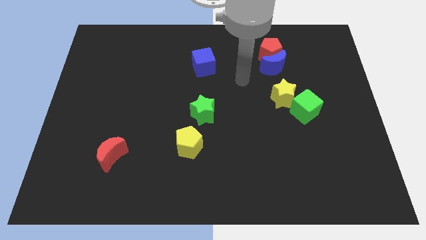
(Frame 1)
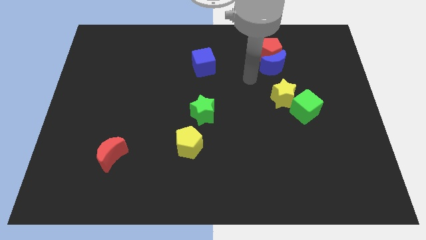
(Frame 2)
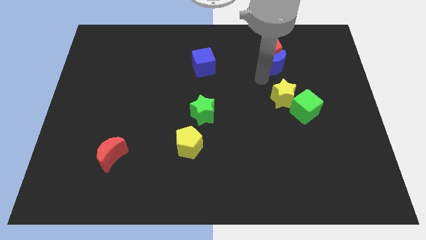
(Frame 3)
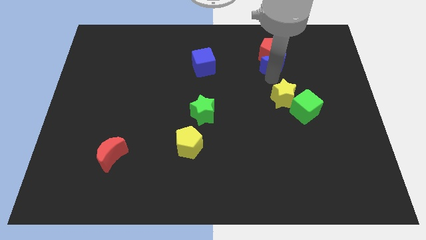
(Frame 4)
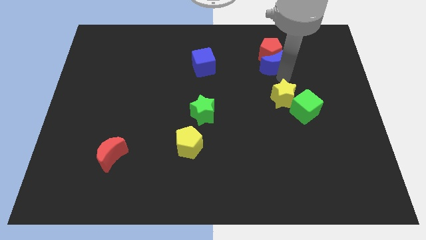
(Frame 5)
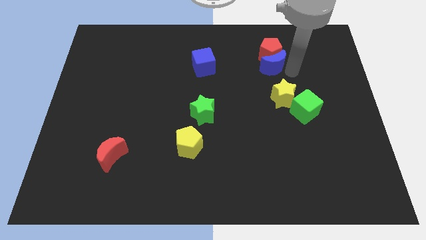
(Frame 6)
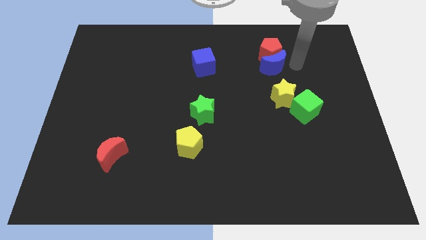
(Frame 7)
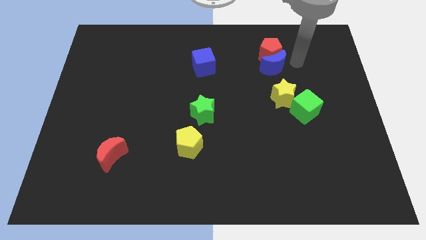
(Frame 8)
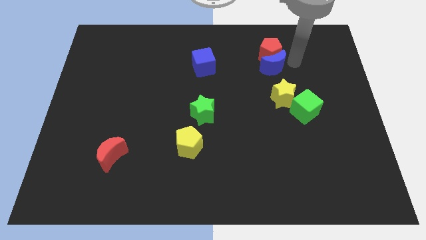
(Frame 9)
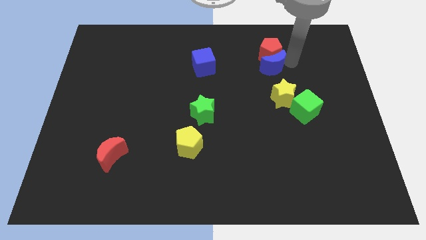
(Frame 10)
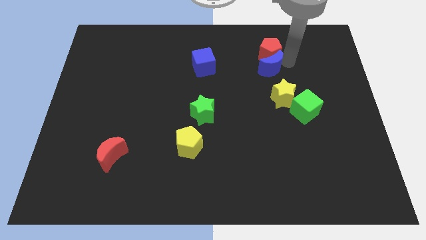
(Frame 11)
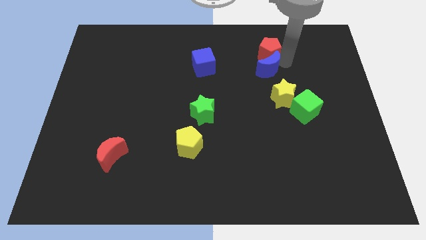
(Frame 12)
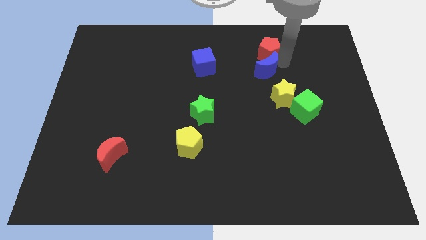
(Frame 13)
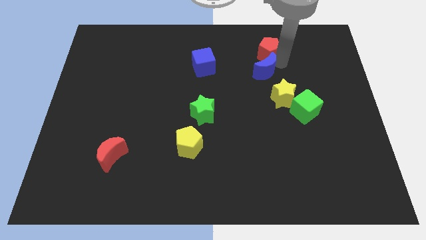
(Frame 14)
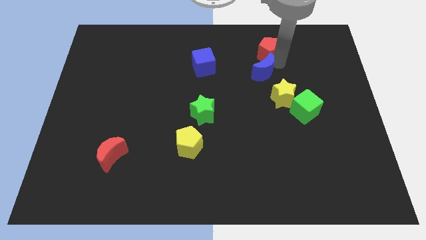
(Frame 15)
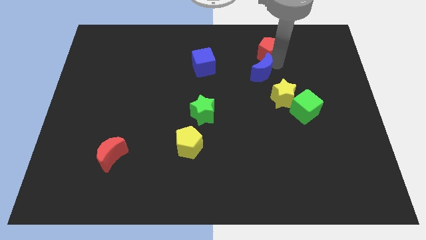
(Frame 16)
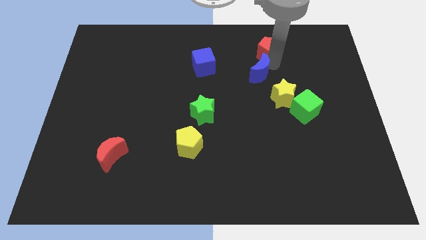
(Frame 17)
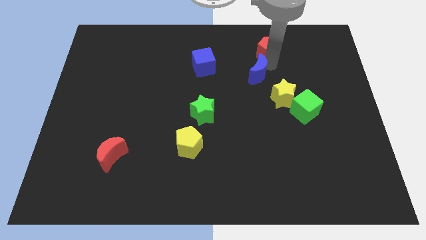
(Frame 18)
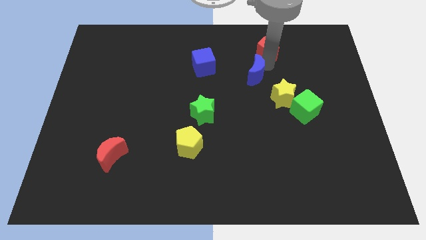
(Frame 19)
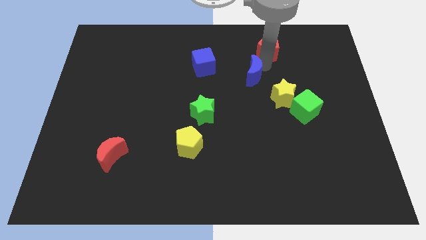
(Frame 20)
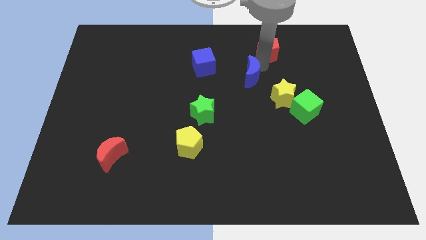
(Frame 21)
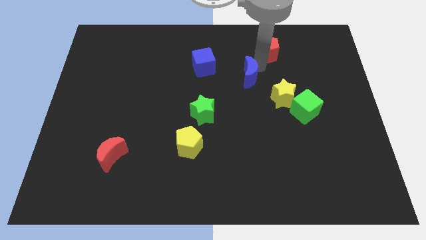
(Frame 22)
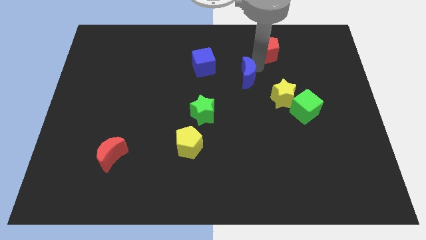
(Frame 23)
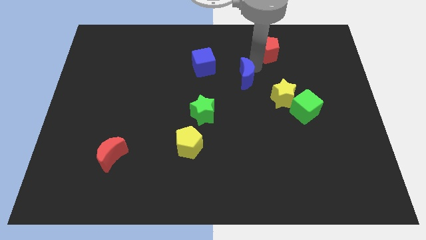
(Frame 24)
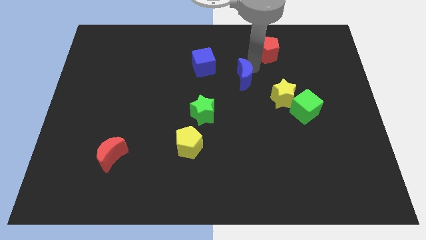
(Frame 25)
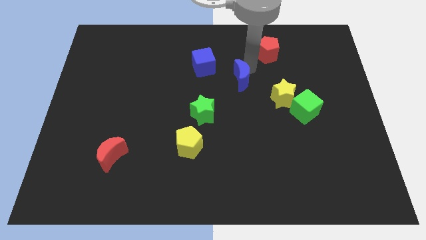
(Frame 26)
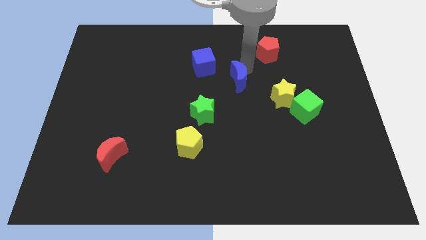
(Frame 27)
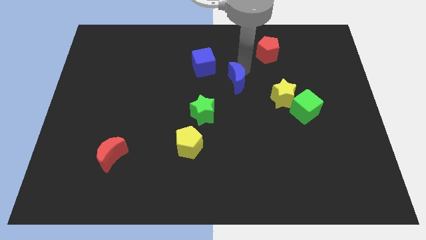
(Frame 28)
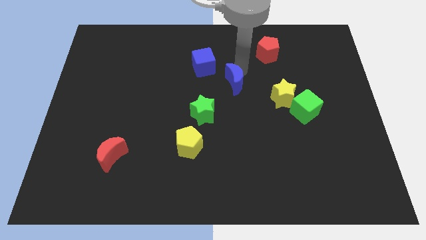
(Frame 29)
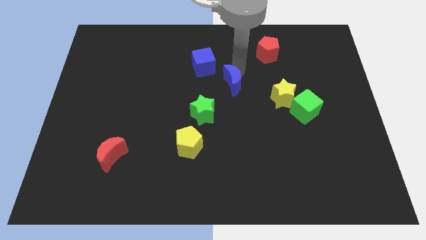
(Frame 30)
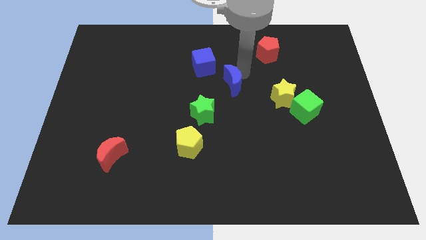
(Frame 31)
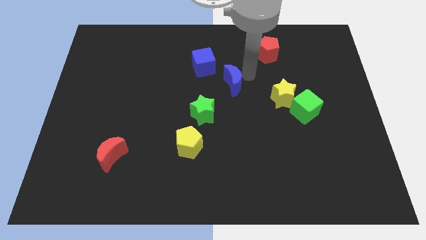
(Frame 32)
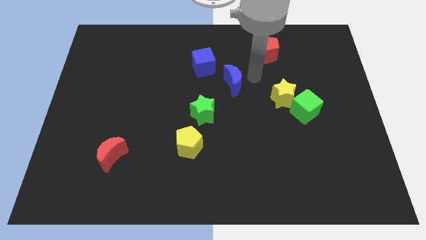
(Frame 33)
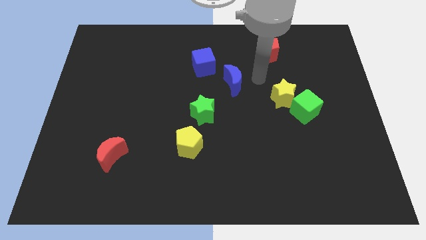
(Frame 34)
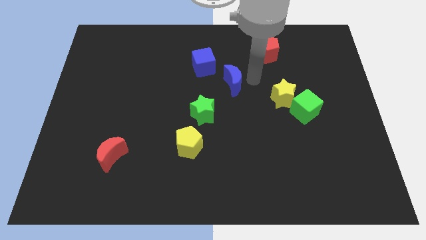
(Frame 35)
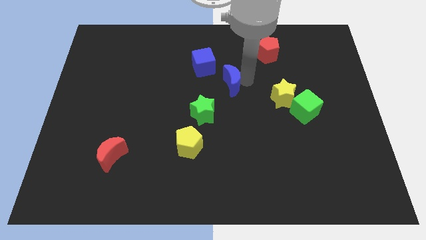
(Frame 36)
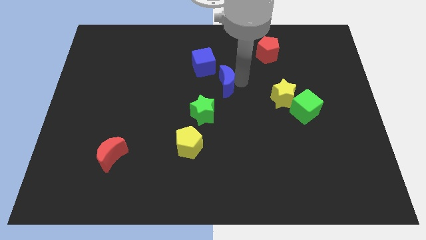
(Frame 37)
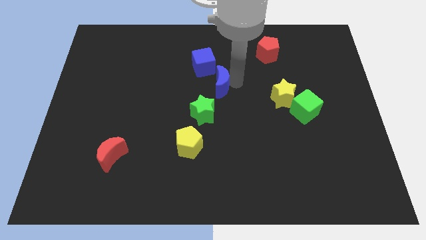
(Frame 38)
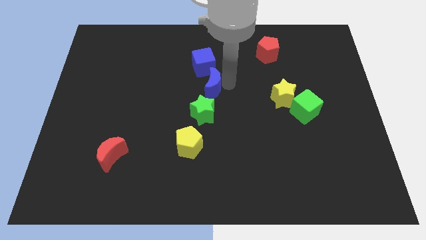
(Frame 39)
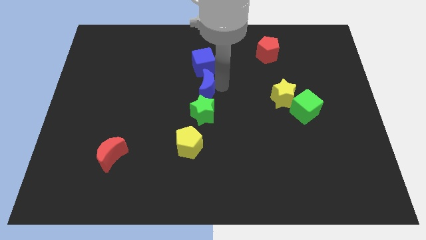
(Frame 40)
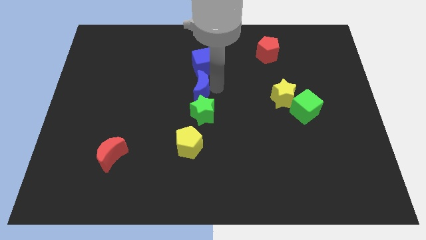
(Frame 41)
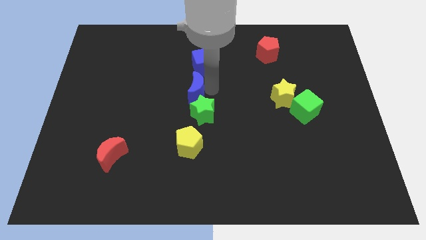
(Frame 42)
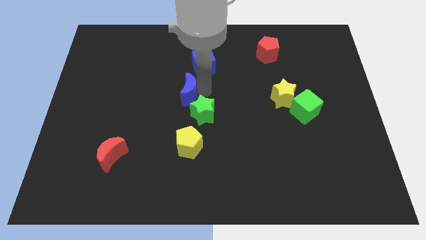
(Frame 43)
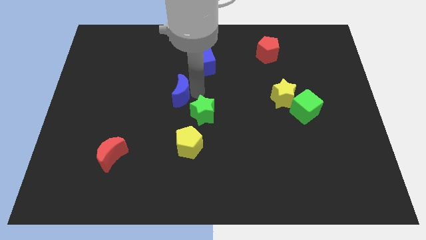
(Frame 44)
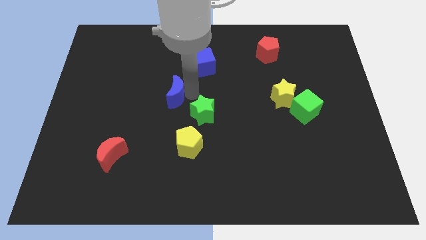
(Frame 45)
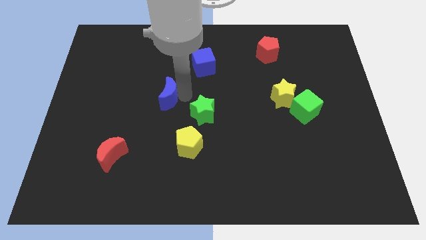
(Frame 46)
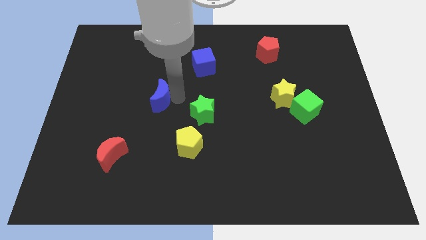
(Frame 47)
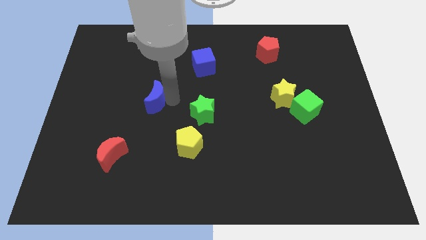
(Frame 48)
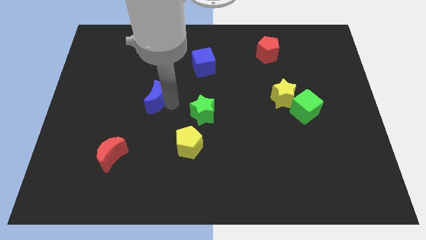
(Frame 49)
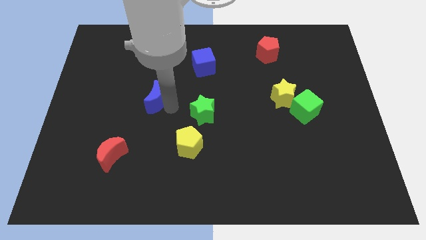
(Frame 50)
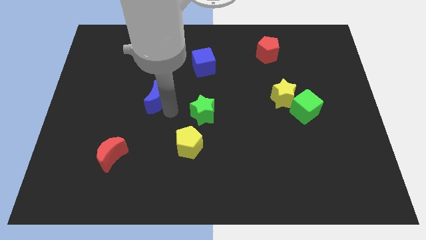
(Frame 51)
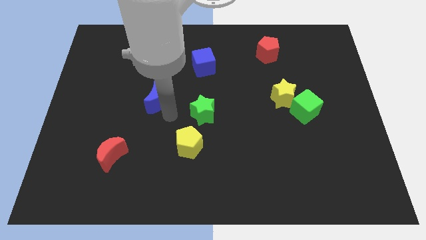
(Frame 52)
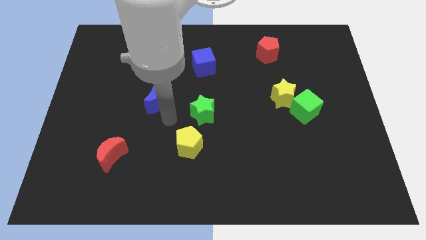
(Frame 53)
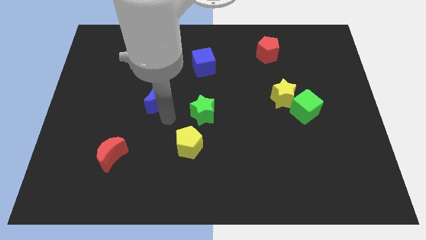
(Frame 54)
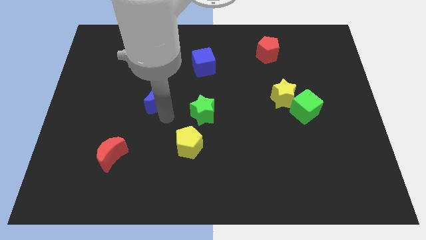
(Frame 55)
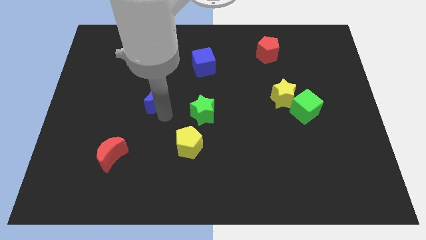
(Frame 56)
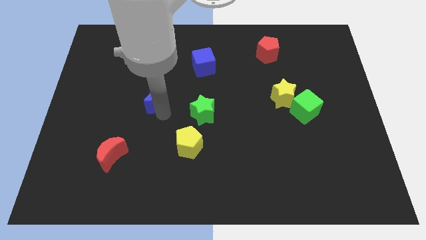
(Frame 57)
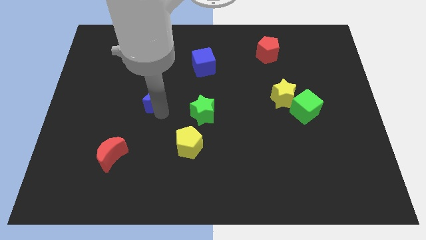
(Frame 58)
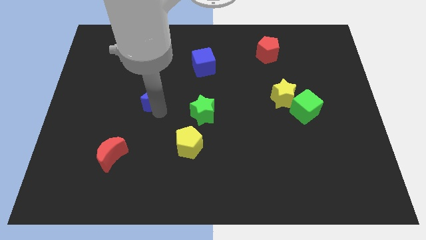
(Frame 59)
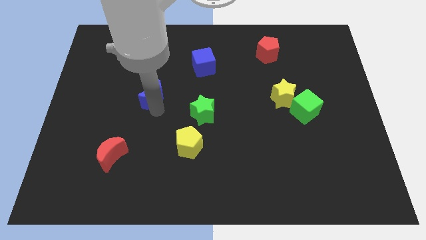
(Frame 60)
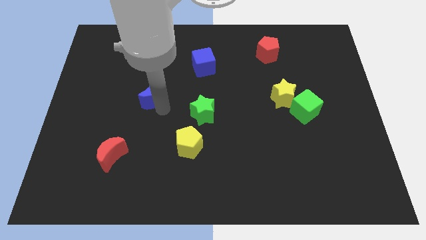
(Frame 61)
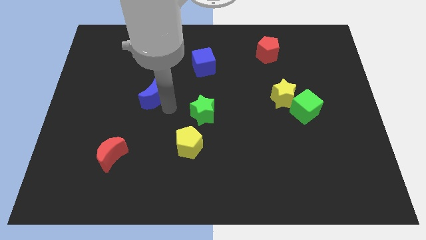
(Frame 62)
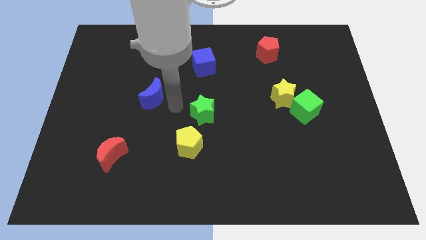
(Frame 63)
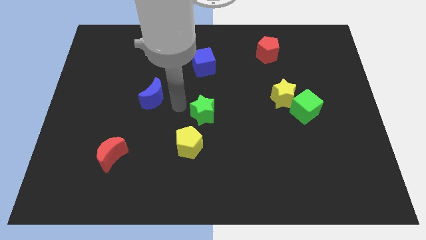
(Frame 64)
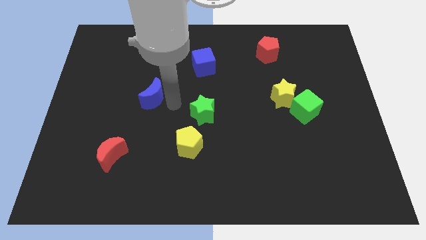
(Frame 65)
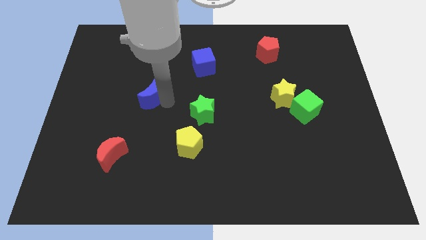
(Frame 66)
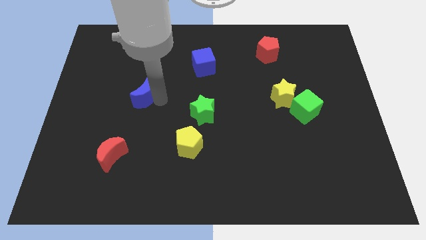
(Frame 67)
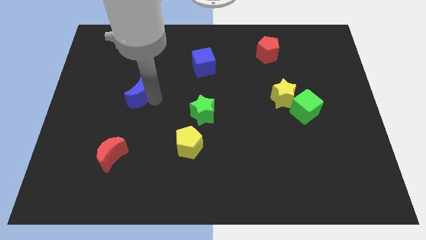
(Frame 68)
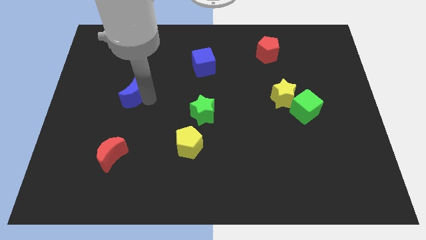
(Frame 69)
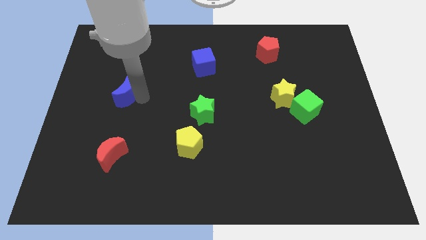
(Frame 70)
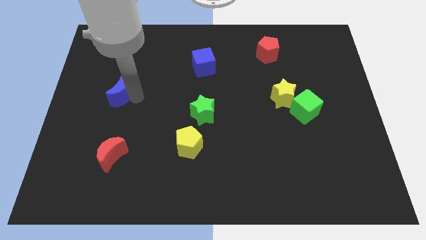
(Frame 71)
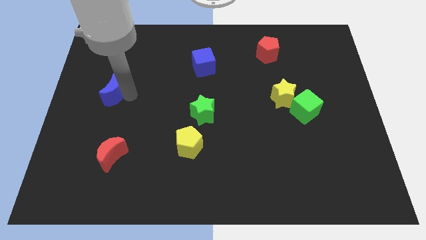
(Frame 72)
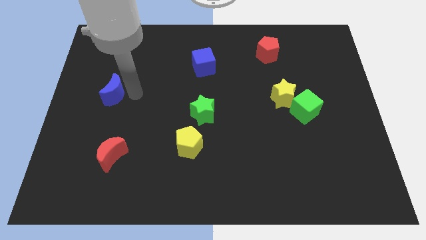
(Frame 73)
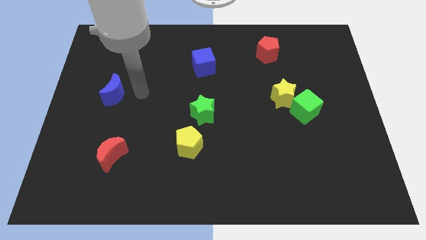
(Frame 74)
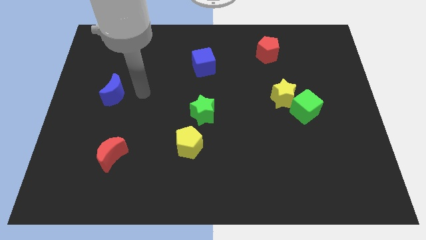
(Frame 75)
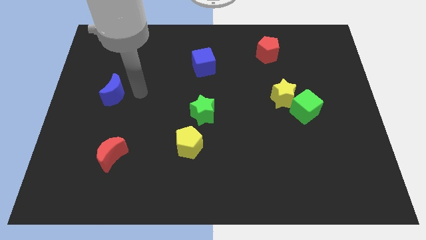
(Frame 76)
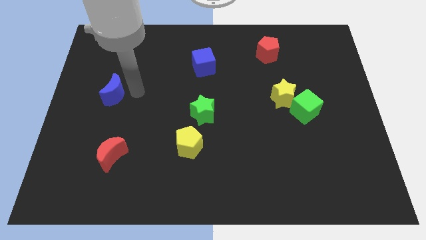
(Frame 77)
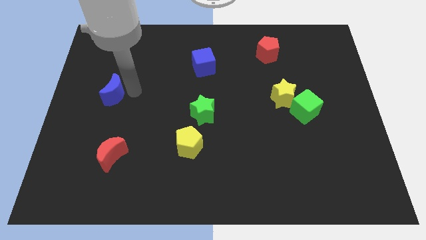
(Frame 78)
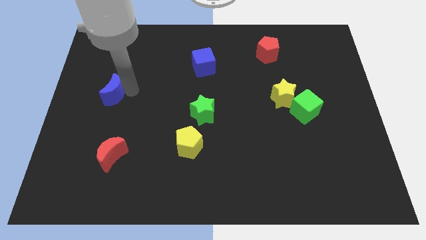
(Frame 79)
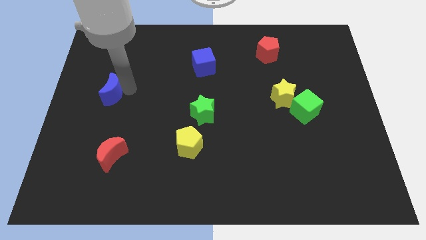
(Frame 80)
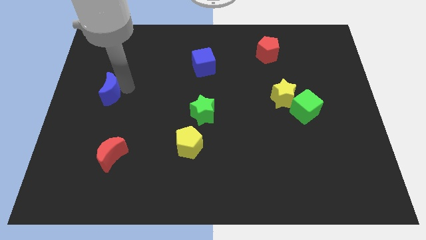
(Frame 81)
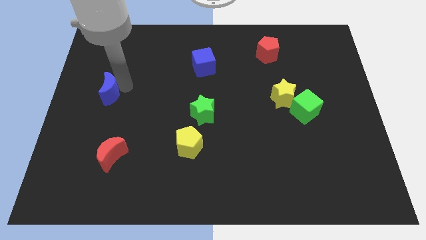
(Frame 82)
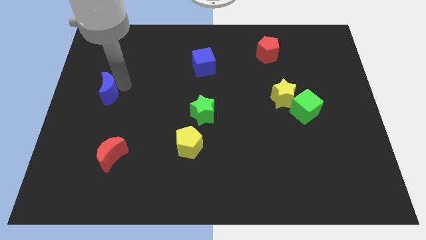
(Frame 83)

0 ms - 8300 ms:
push the blue moon to the center left
